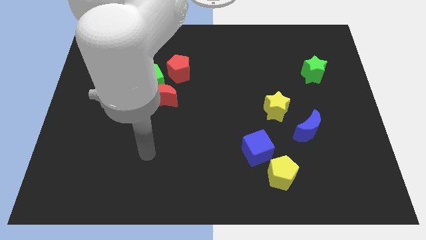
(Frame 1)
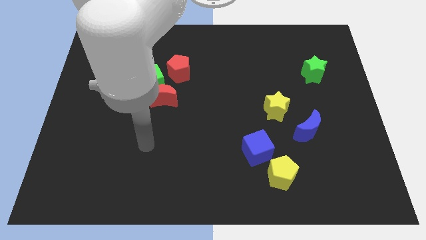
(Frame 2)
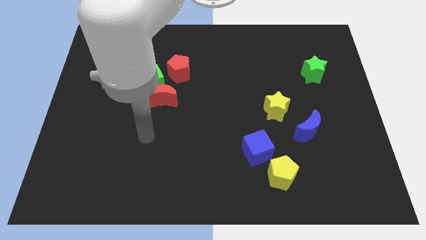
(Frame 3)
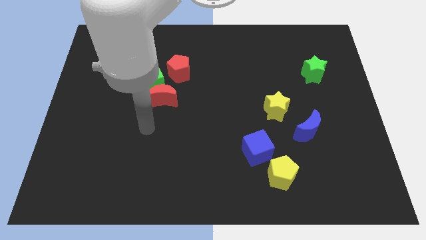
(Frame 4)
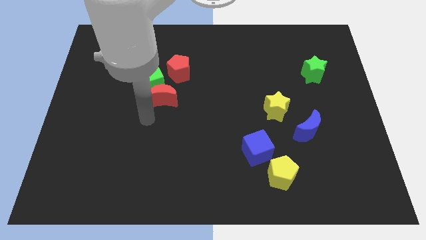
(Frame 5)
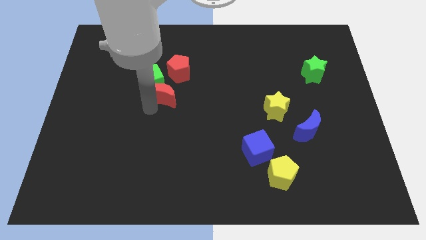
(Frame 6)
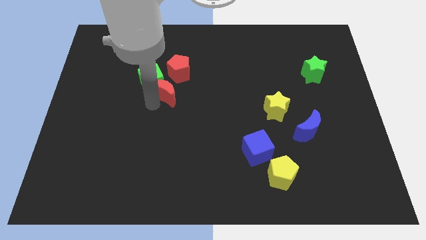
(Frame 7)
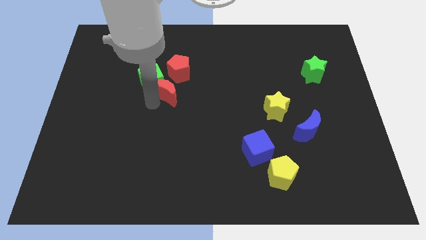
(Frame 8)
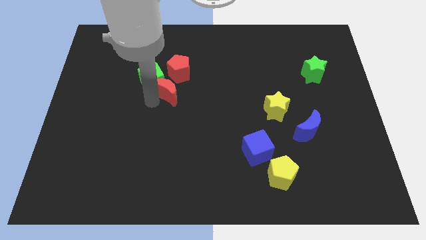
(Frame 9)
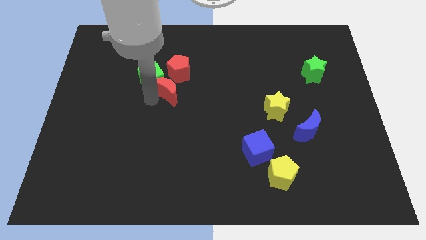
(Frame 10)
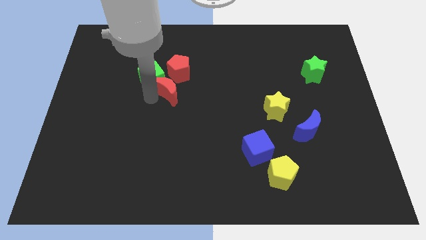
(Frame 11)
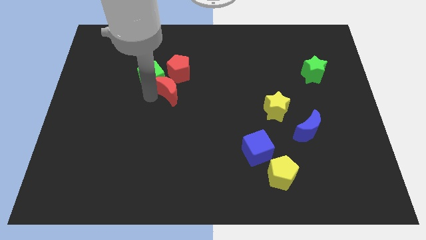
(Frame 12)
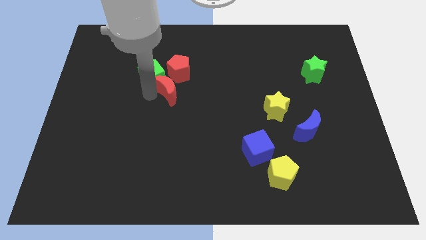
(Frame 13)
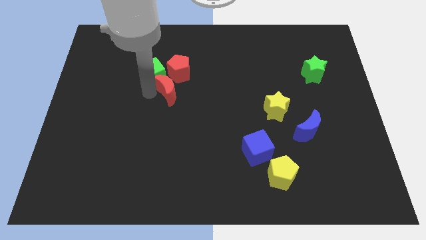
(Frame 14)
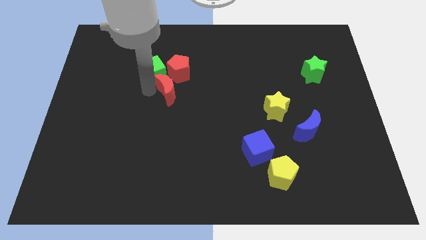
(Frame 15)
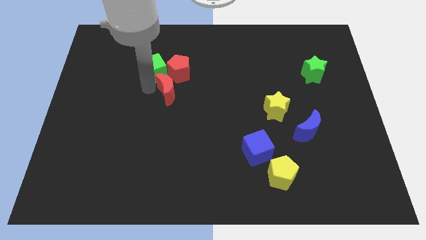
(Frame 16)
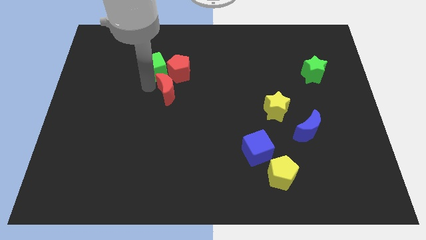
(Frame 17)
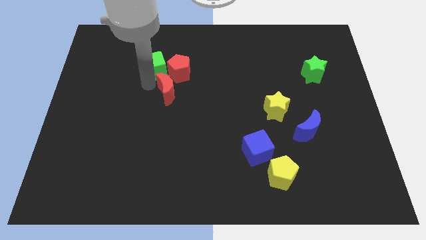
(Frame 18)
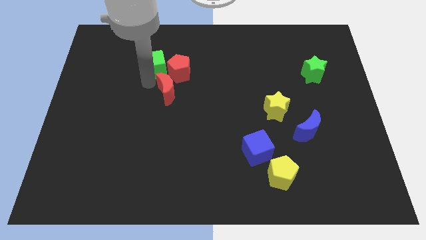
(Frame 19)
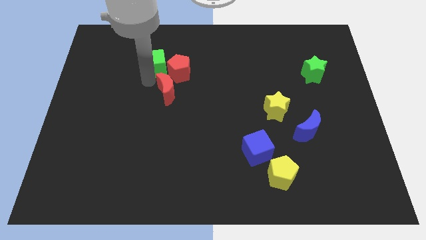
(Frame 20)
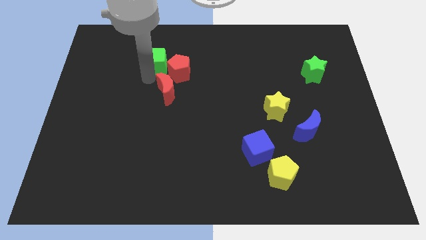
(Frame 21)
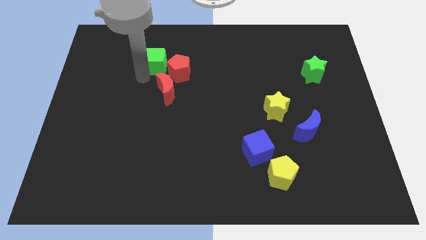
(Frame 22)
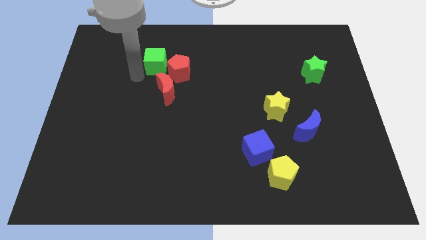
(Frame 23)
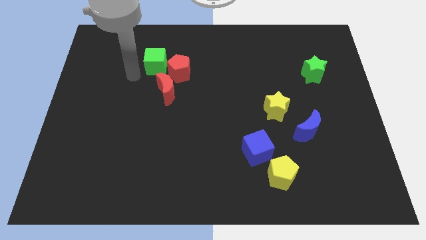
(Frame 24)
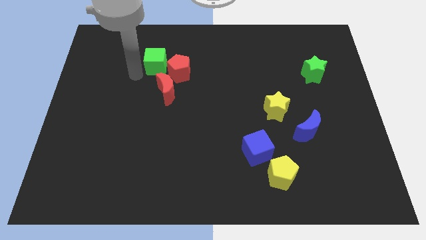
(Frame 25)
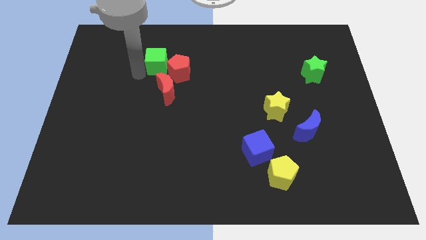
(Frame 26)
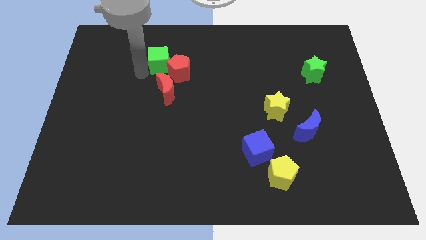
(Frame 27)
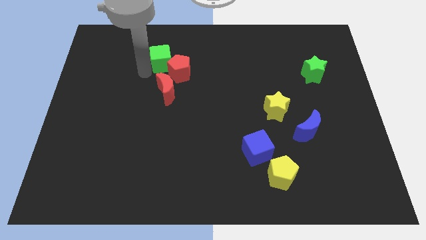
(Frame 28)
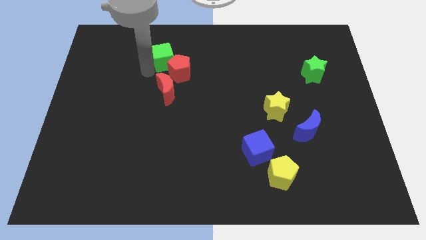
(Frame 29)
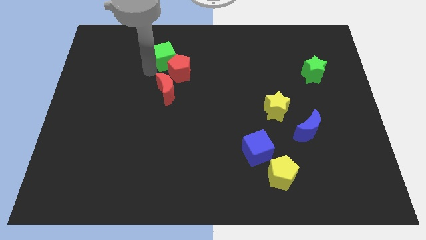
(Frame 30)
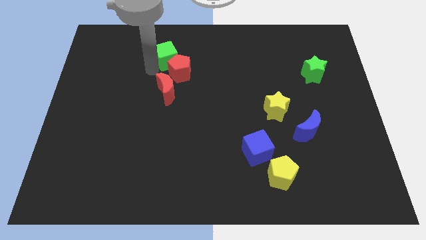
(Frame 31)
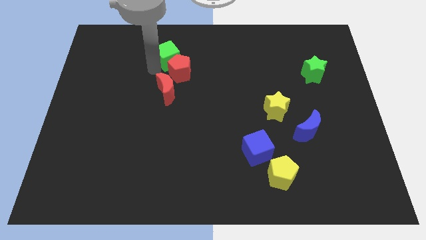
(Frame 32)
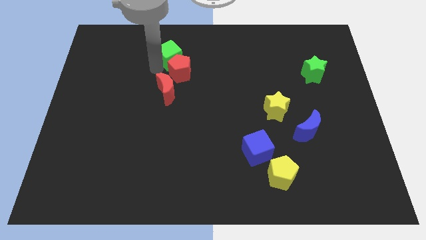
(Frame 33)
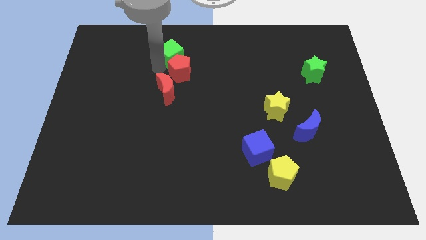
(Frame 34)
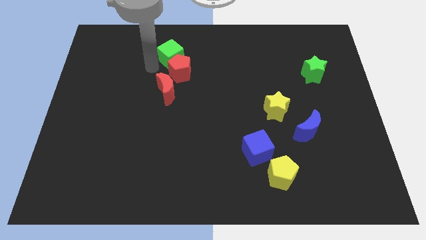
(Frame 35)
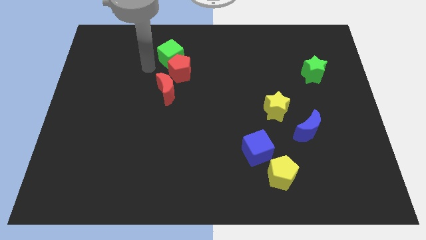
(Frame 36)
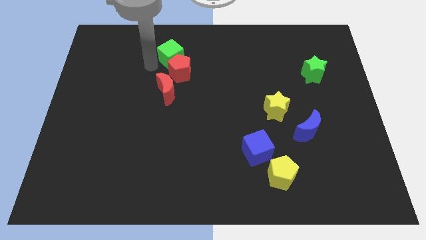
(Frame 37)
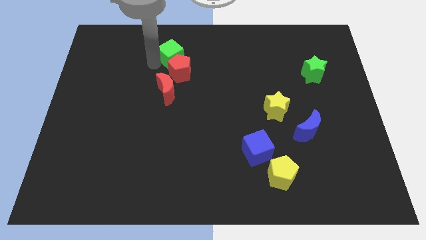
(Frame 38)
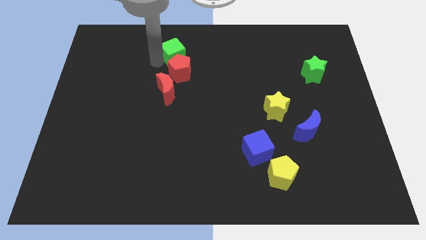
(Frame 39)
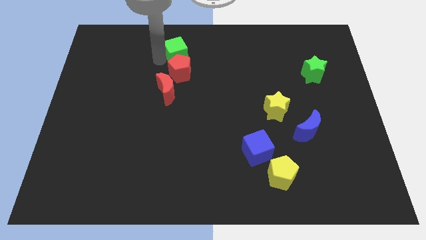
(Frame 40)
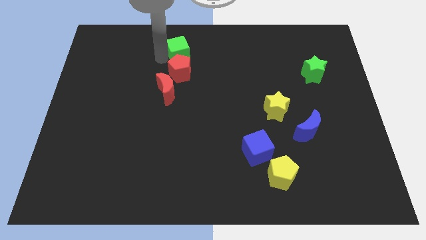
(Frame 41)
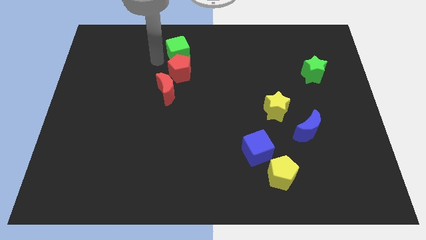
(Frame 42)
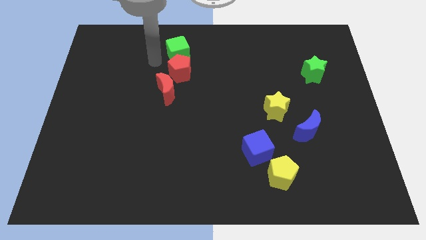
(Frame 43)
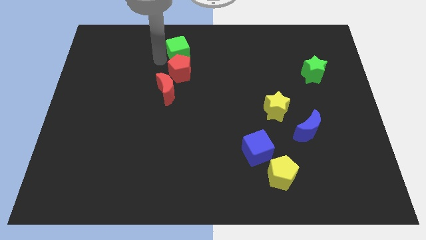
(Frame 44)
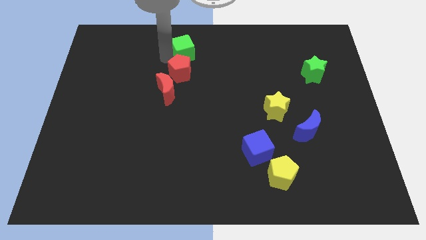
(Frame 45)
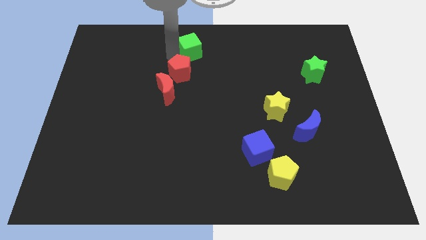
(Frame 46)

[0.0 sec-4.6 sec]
put the green cube to the top

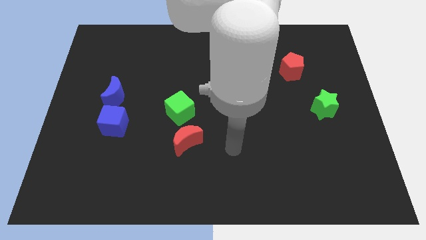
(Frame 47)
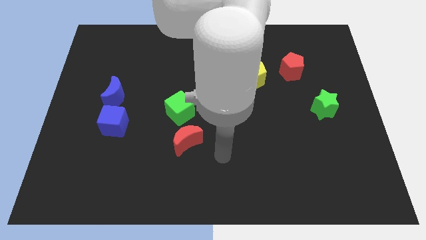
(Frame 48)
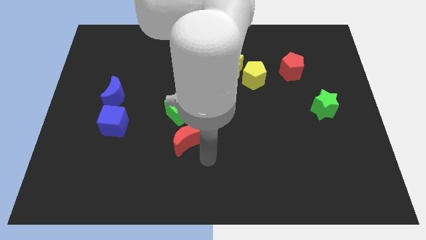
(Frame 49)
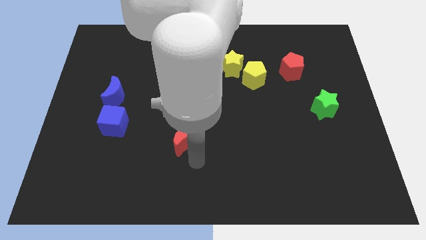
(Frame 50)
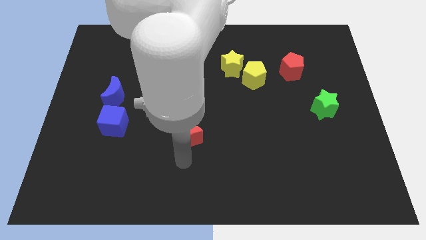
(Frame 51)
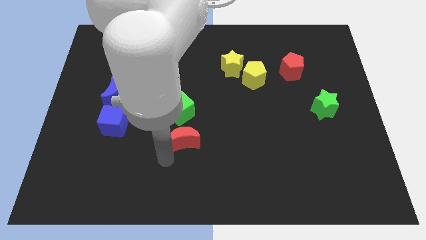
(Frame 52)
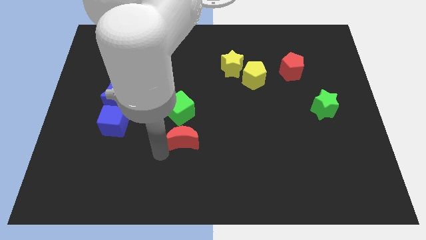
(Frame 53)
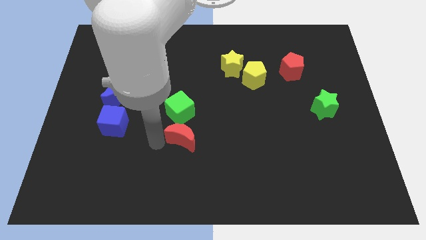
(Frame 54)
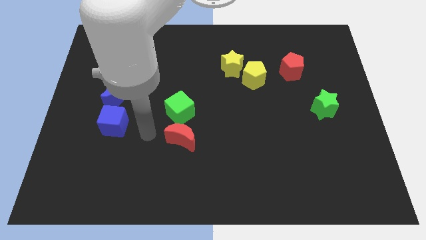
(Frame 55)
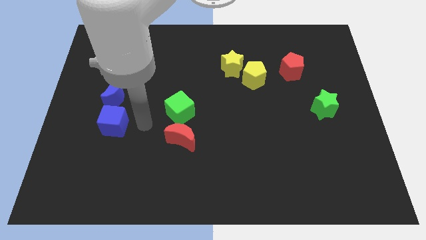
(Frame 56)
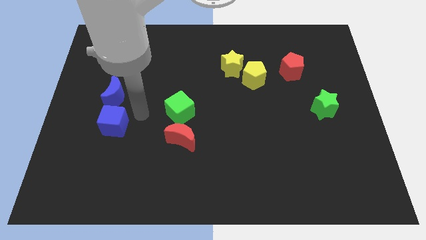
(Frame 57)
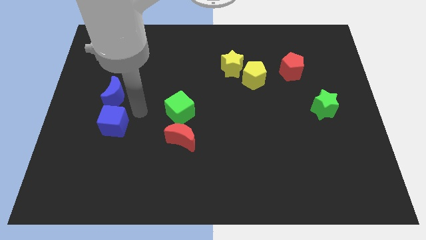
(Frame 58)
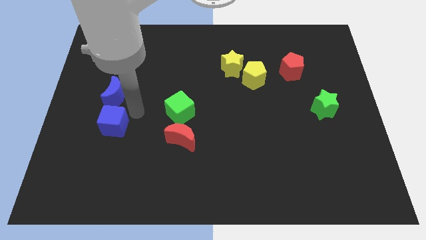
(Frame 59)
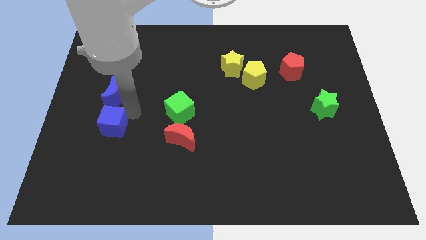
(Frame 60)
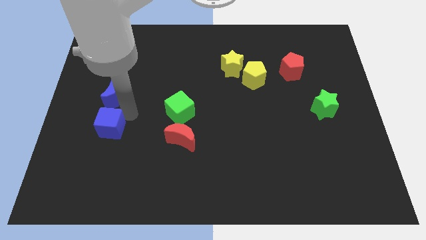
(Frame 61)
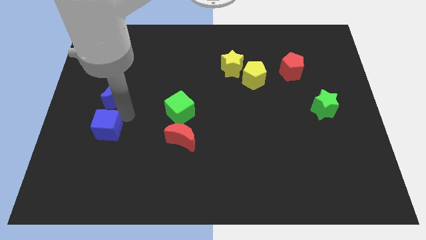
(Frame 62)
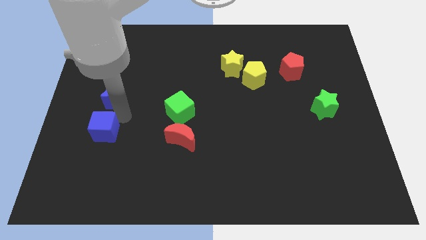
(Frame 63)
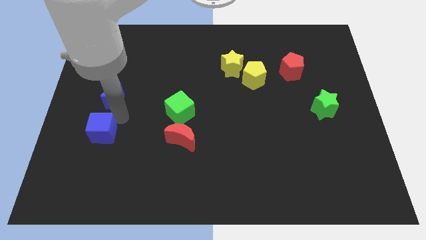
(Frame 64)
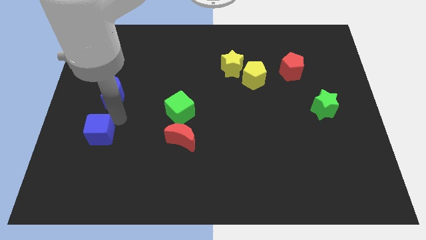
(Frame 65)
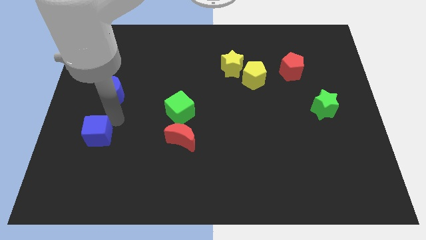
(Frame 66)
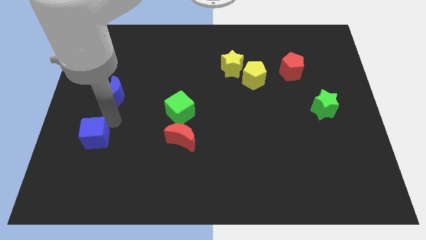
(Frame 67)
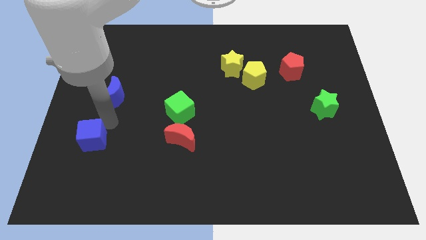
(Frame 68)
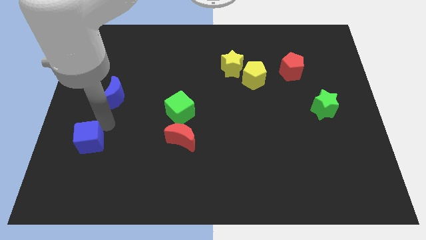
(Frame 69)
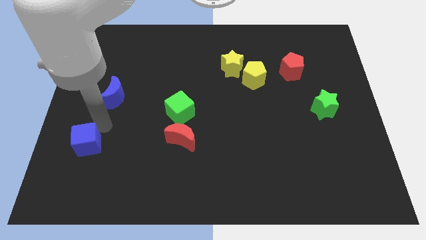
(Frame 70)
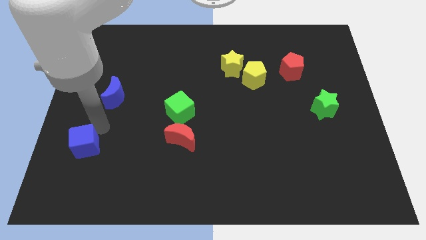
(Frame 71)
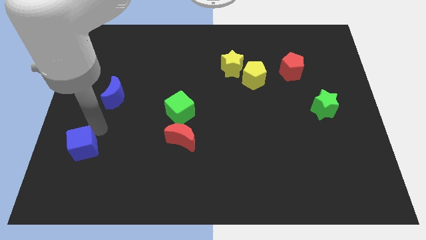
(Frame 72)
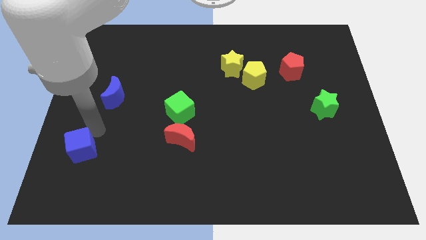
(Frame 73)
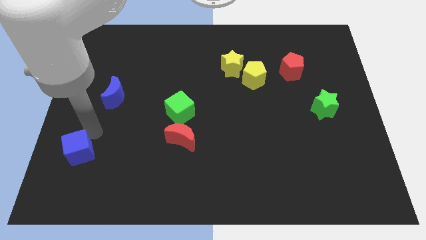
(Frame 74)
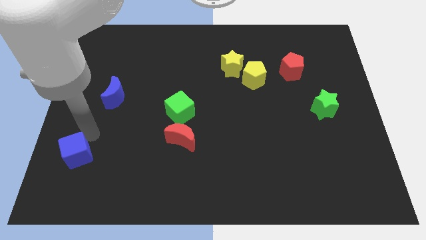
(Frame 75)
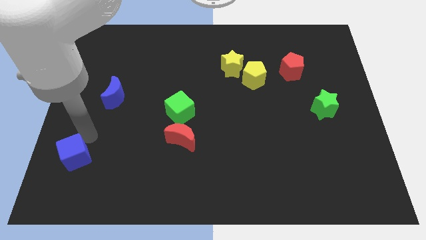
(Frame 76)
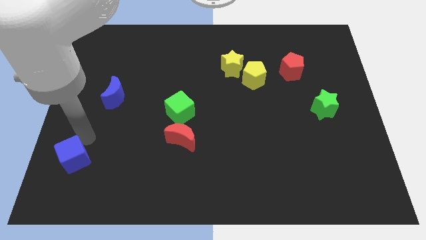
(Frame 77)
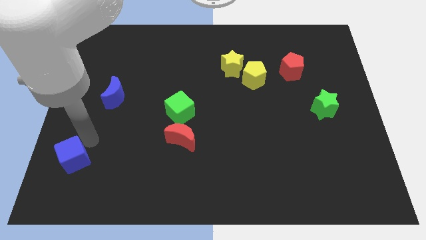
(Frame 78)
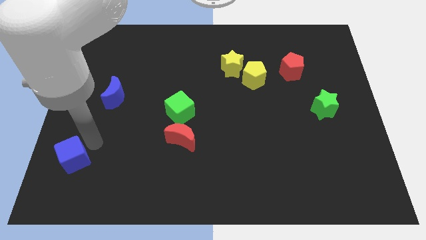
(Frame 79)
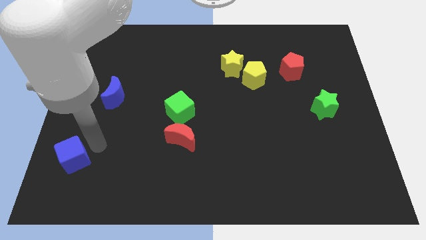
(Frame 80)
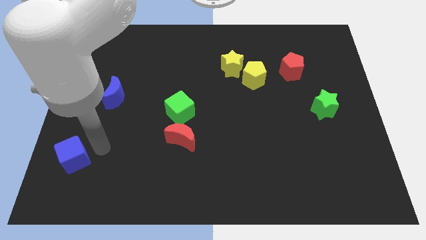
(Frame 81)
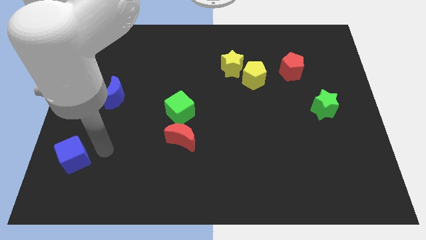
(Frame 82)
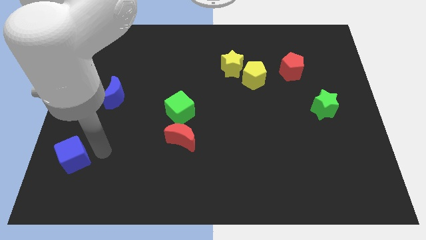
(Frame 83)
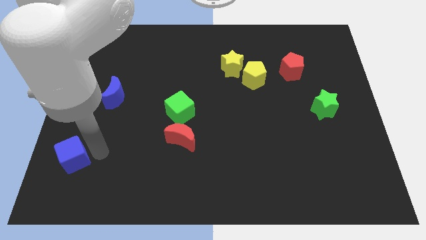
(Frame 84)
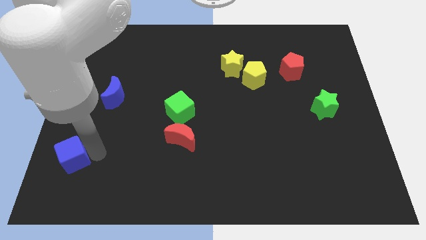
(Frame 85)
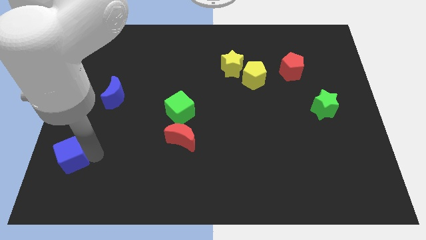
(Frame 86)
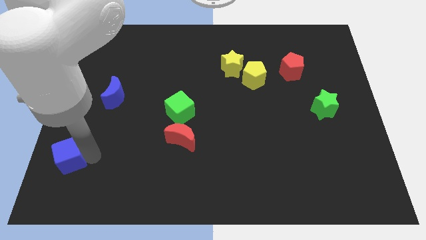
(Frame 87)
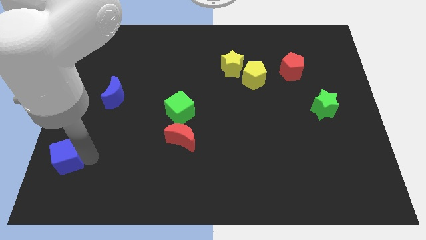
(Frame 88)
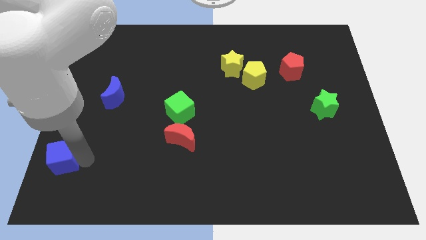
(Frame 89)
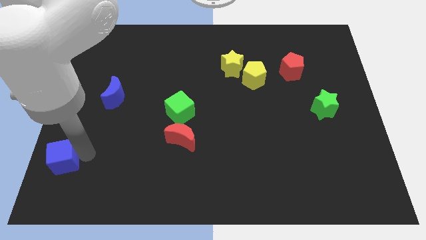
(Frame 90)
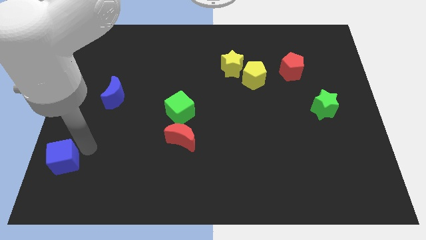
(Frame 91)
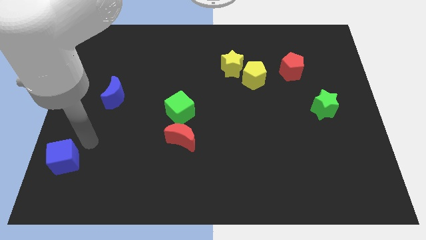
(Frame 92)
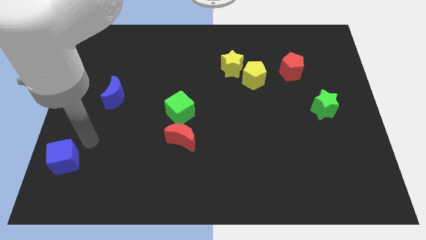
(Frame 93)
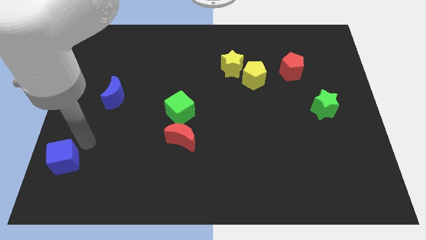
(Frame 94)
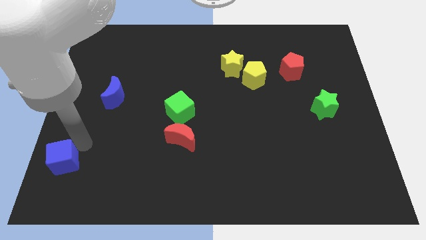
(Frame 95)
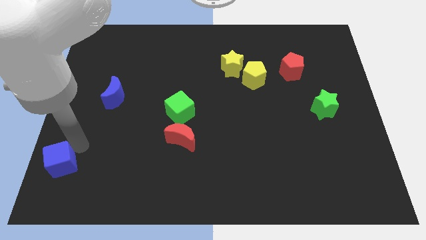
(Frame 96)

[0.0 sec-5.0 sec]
put the blue cube to the bottom left corner
